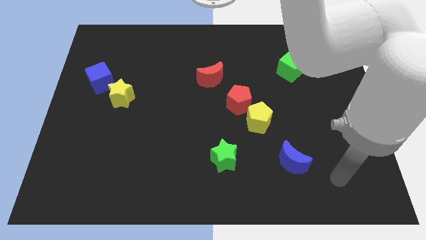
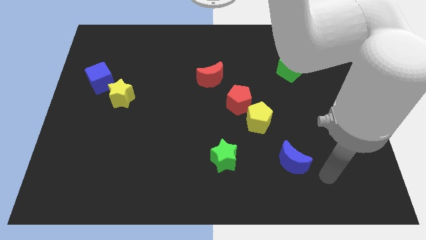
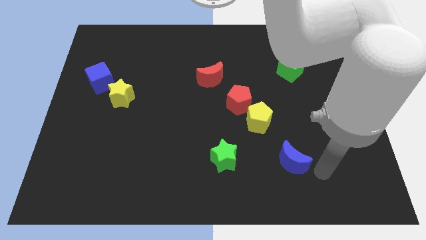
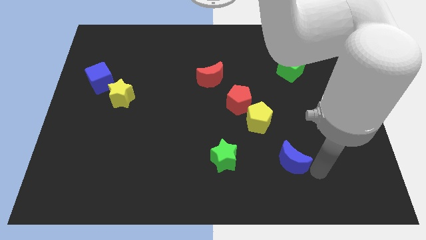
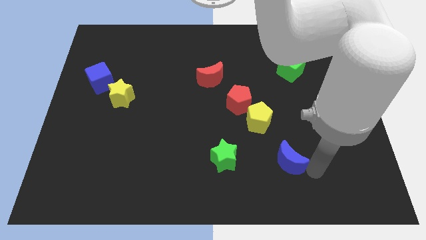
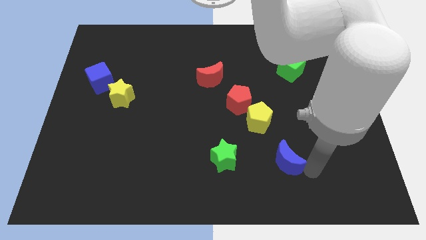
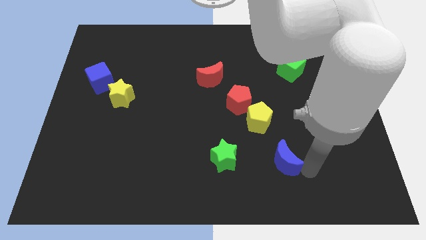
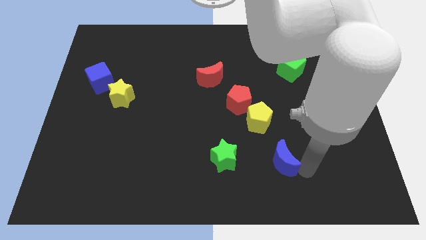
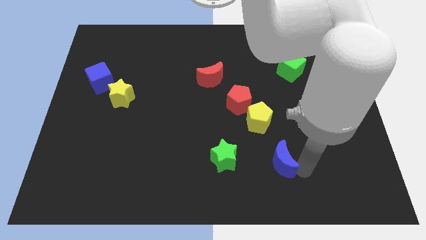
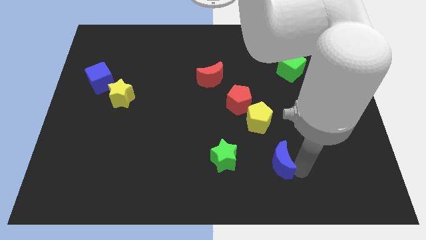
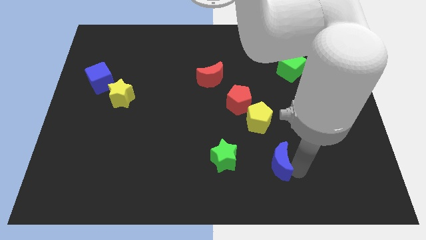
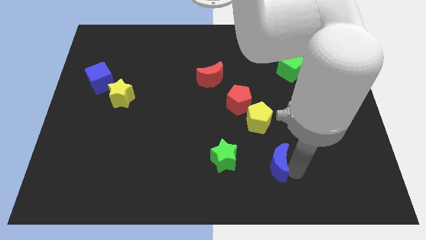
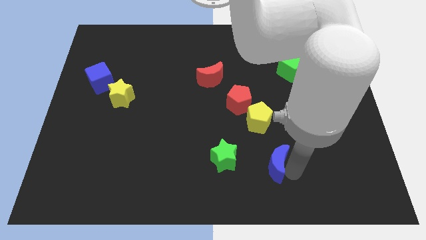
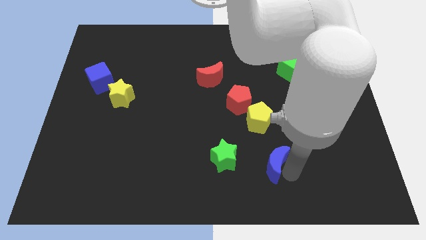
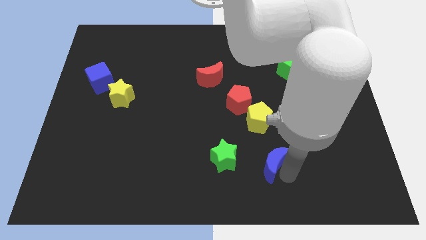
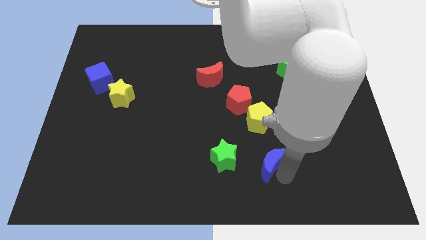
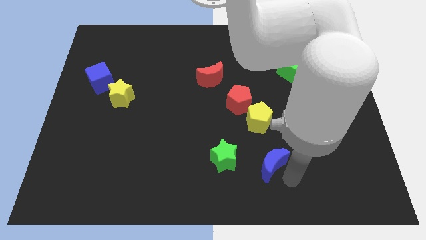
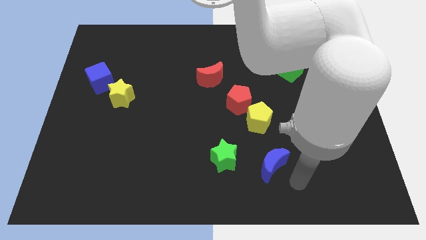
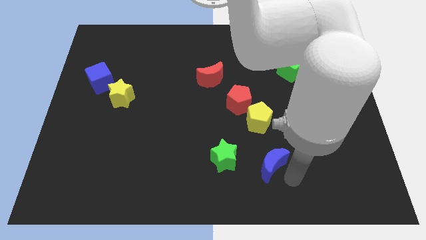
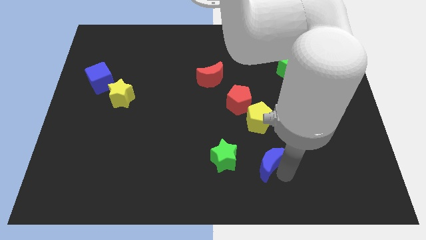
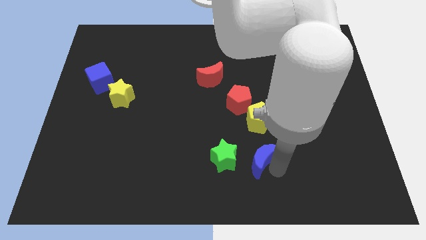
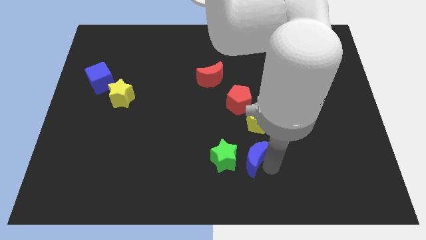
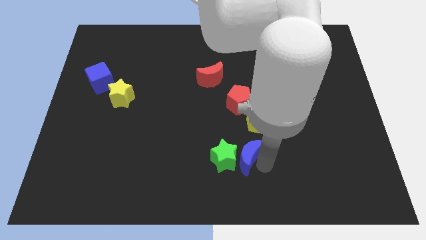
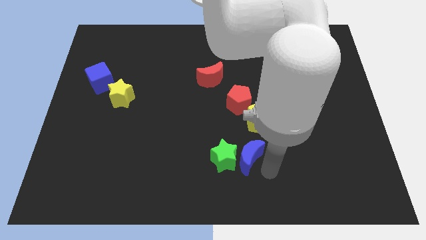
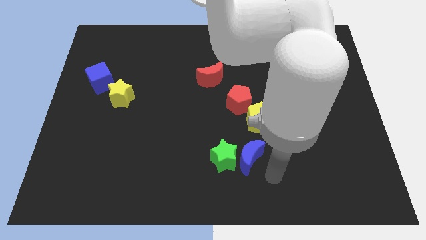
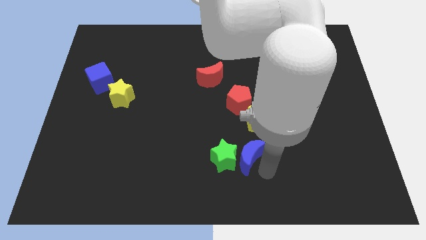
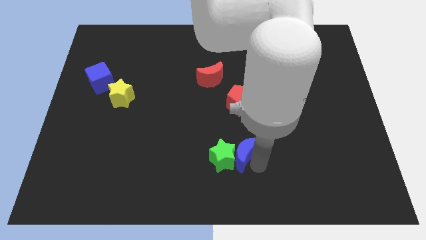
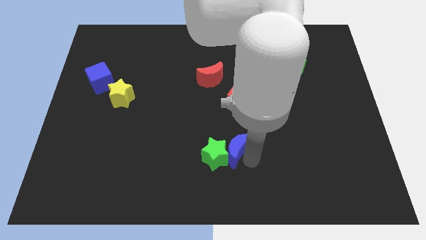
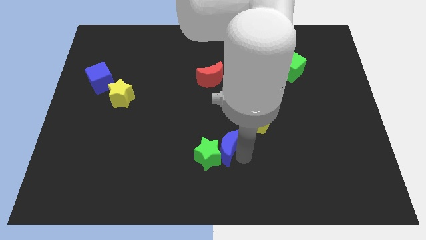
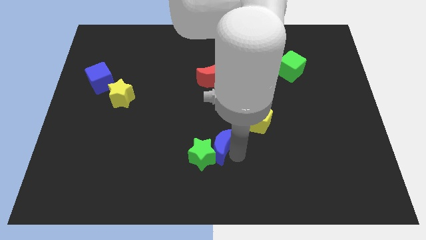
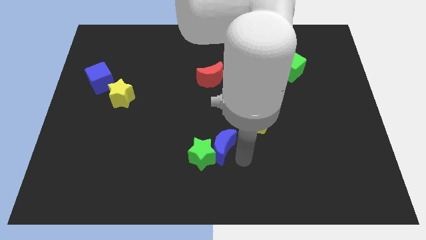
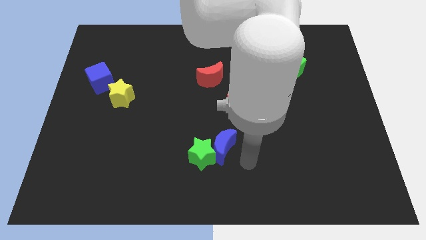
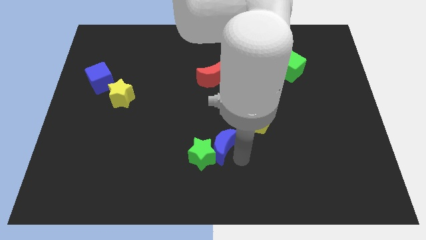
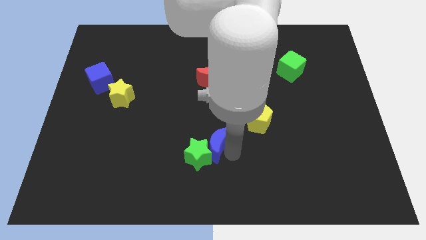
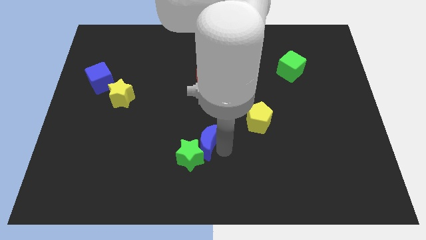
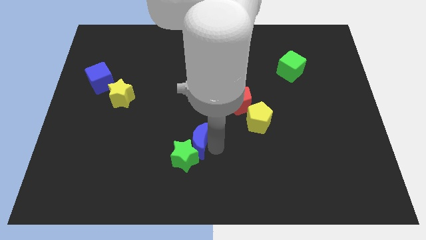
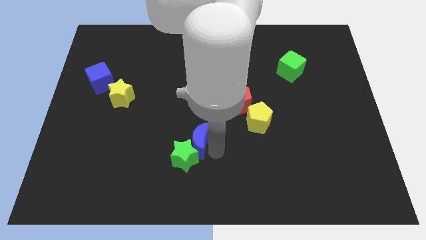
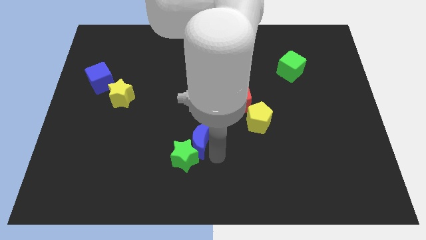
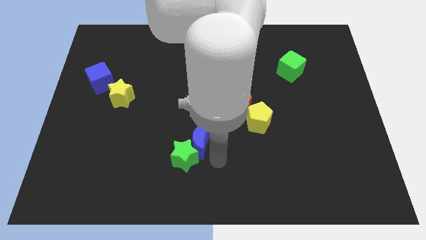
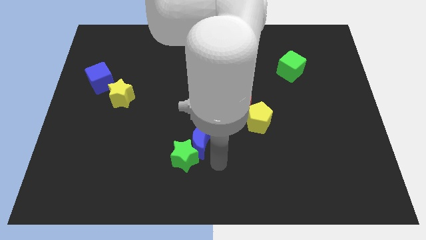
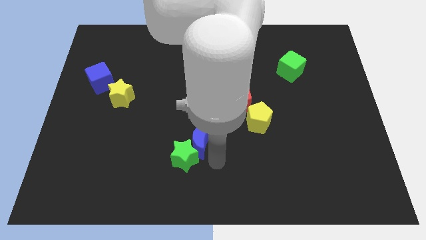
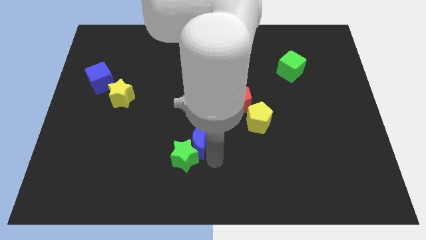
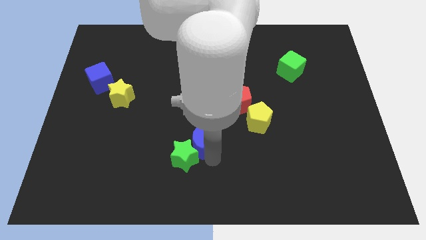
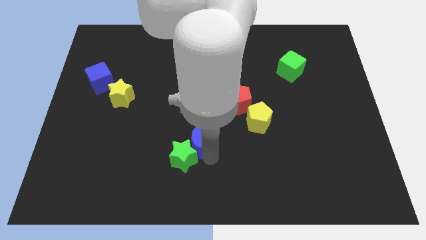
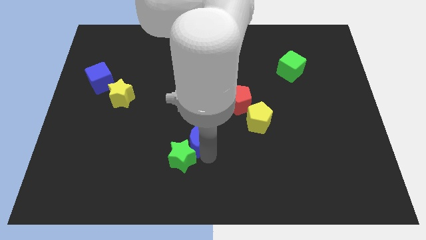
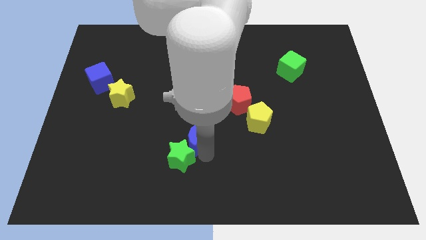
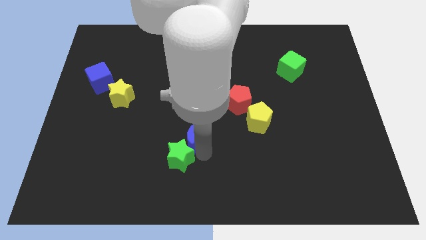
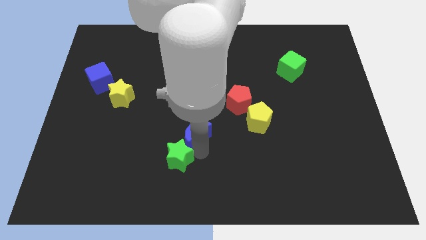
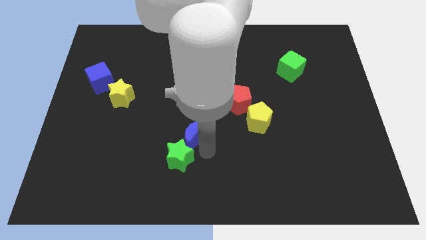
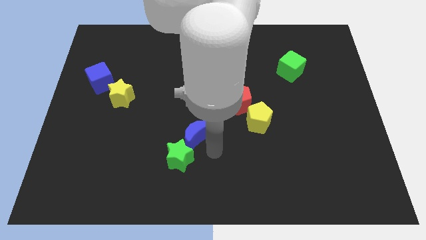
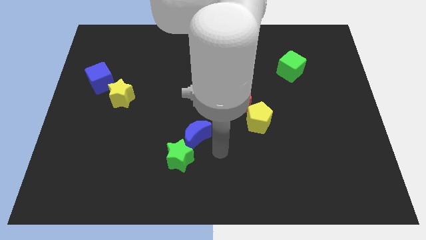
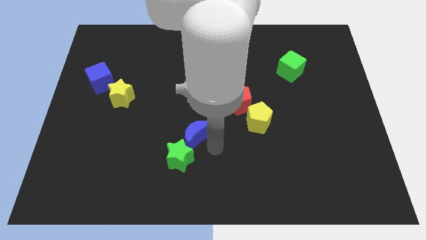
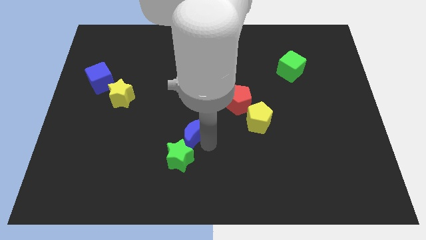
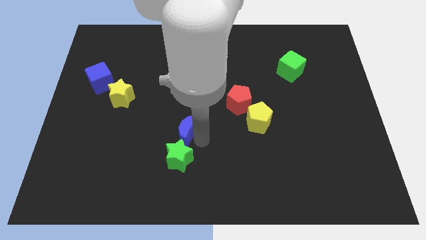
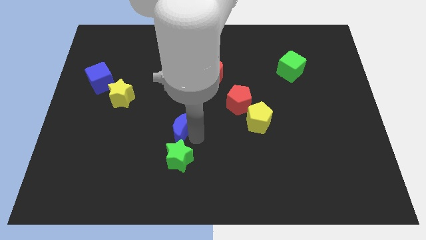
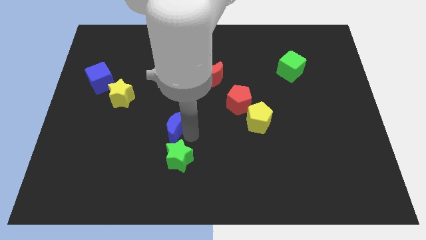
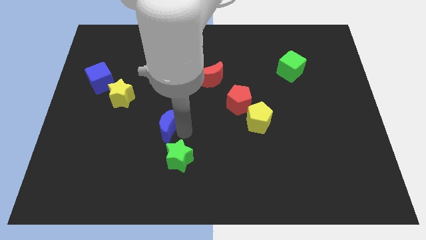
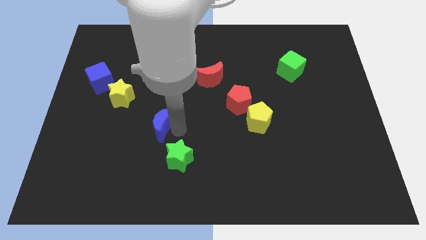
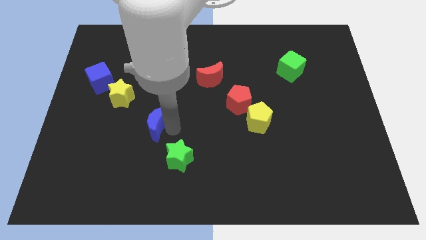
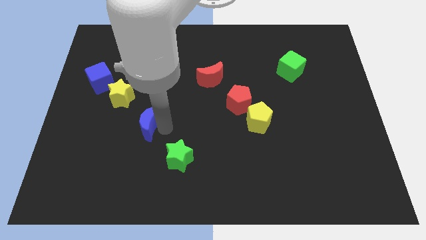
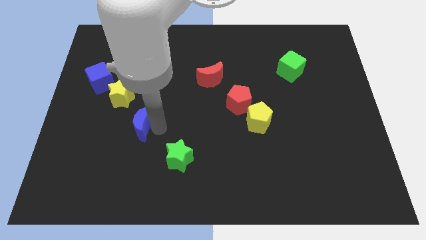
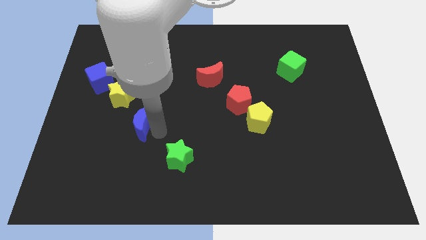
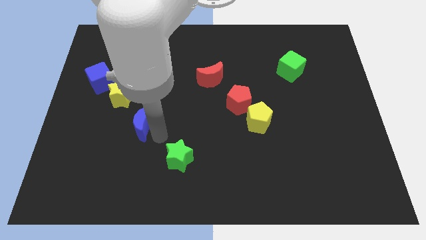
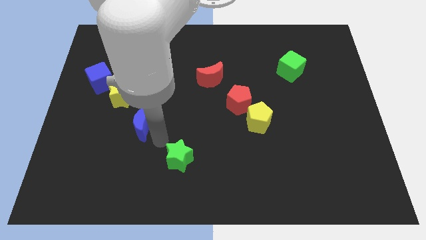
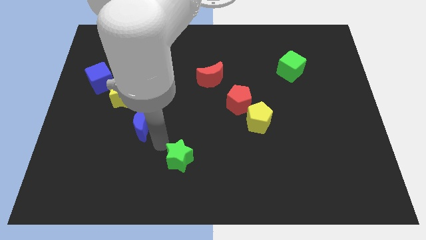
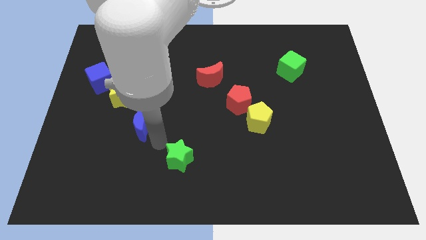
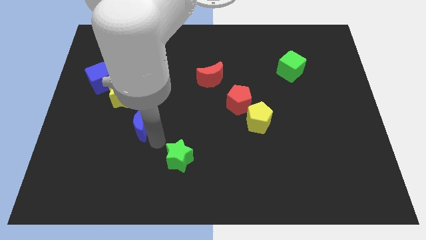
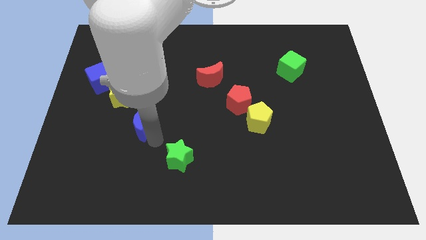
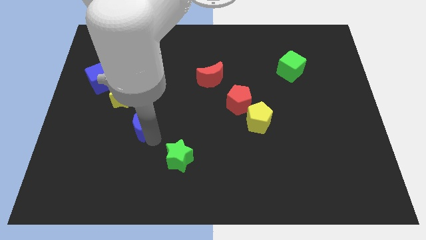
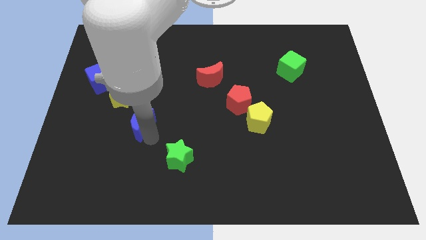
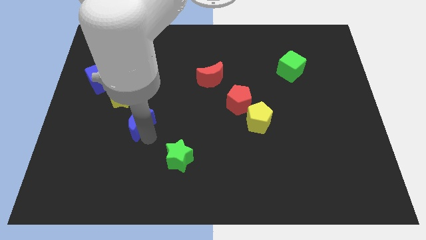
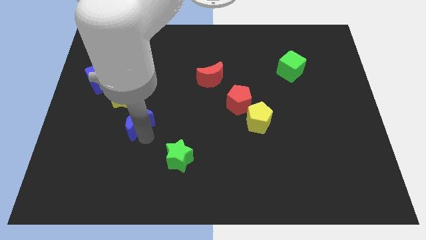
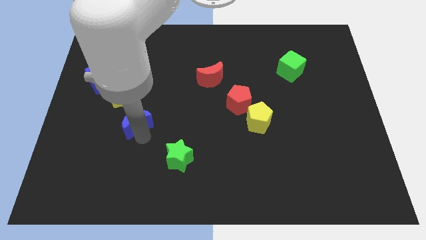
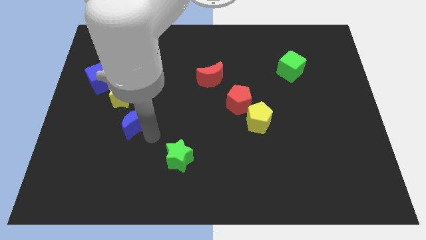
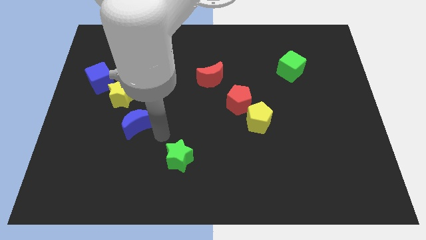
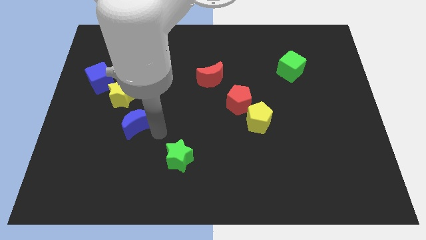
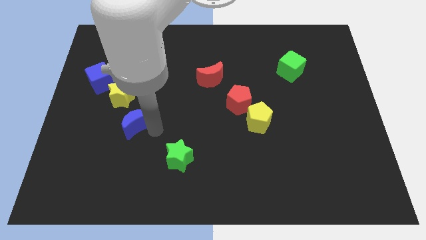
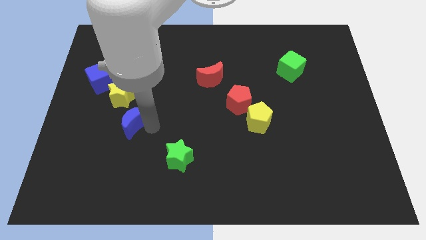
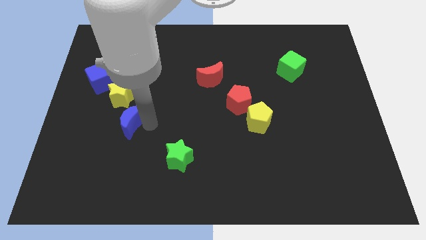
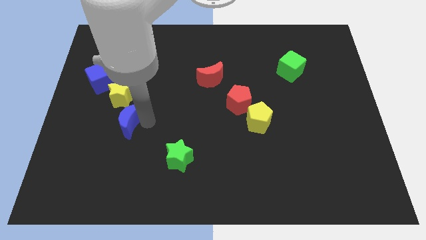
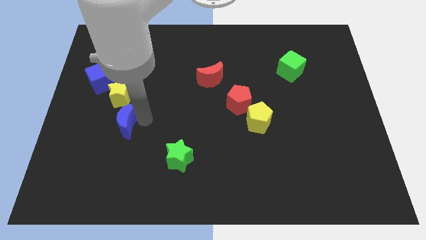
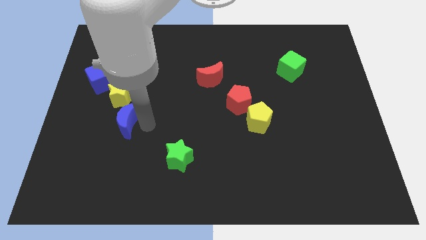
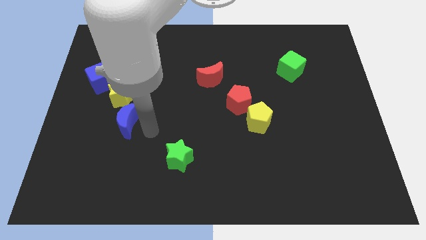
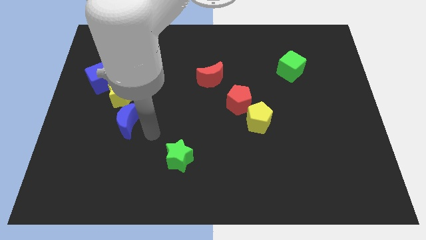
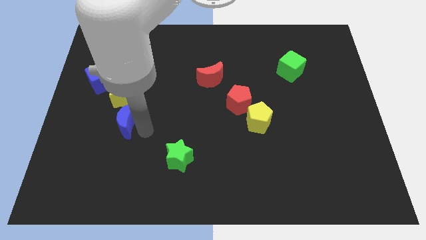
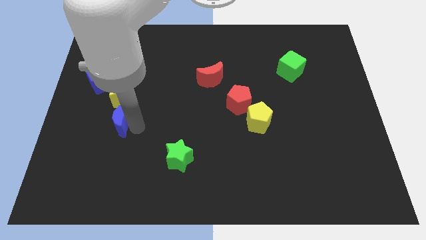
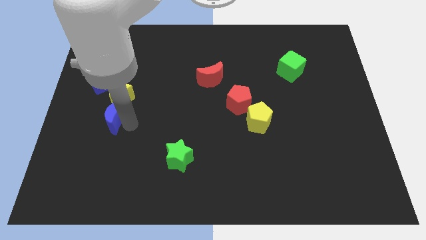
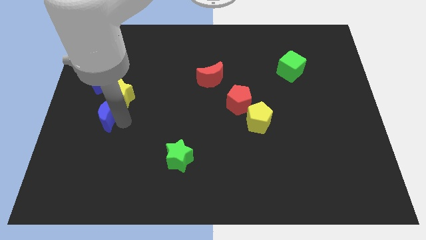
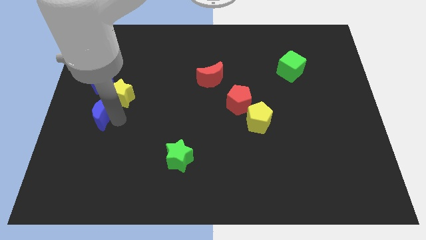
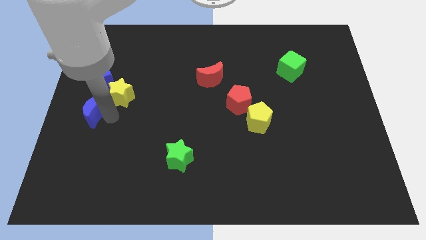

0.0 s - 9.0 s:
move the blue moon to the left side of the board
